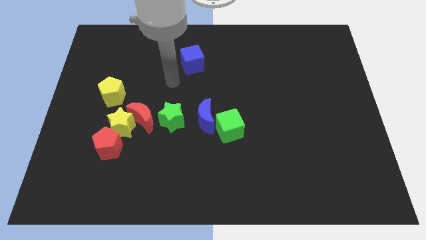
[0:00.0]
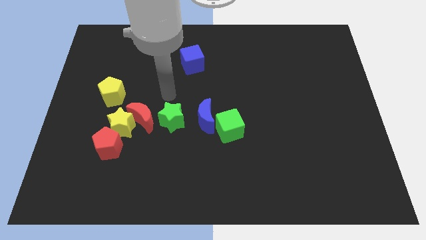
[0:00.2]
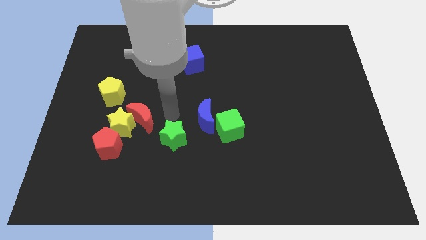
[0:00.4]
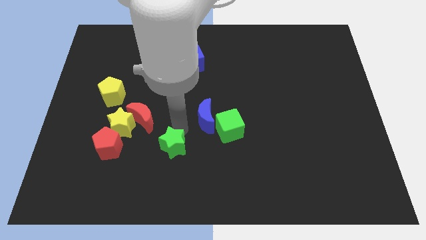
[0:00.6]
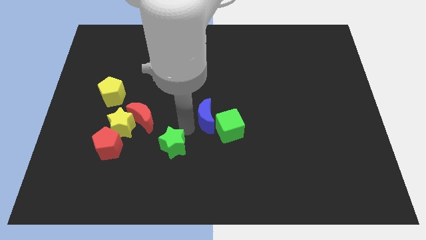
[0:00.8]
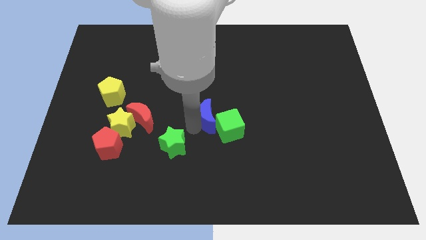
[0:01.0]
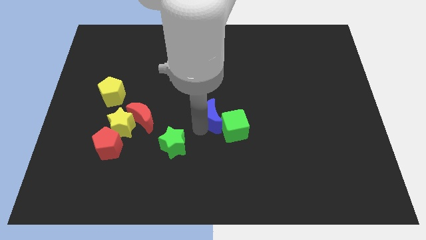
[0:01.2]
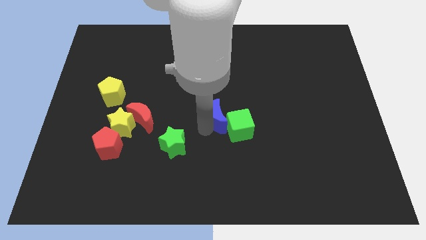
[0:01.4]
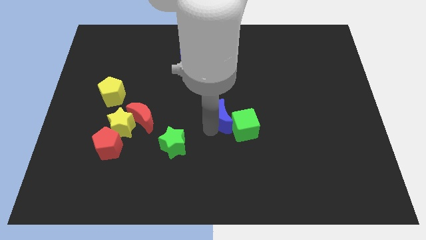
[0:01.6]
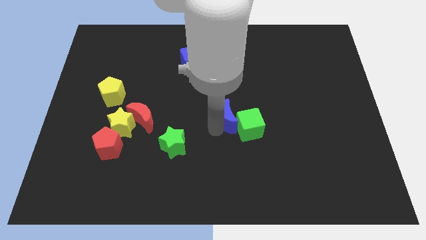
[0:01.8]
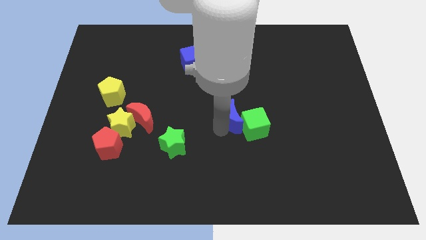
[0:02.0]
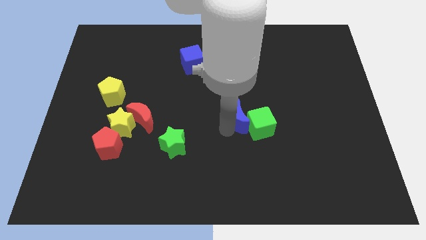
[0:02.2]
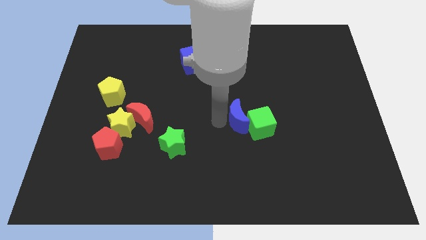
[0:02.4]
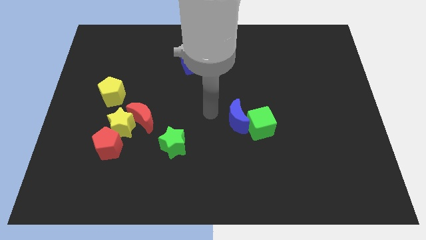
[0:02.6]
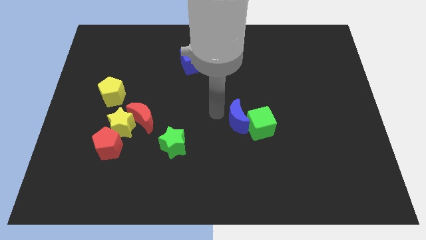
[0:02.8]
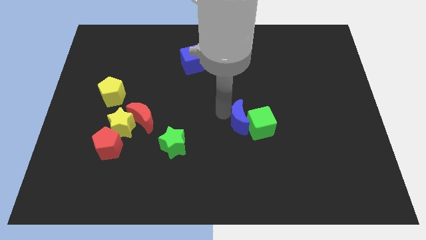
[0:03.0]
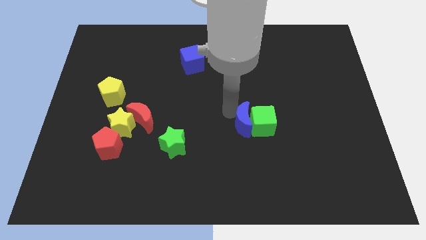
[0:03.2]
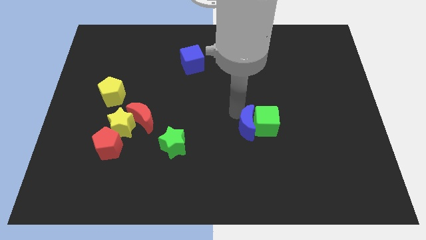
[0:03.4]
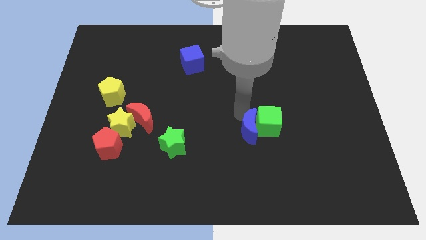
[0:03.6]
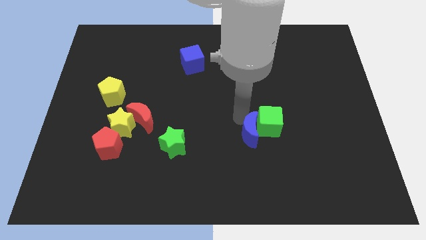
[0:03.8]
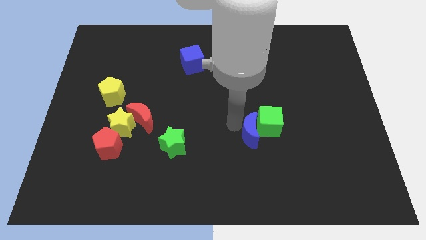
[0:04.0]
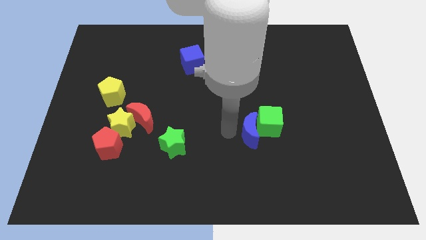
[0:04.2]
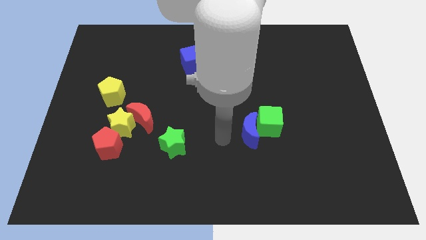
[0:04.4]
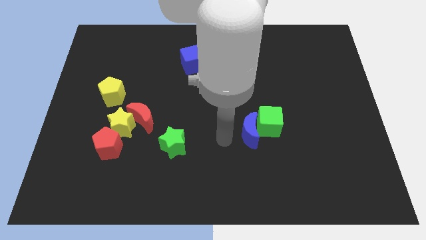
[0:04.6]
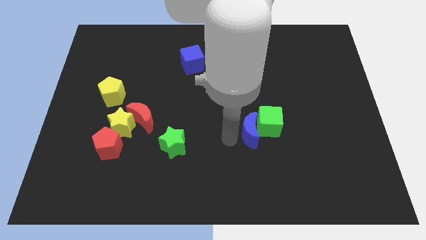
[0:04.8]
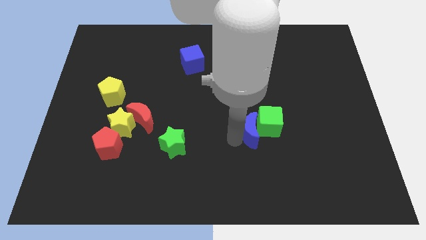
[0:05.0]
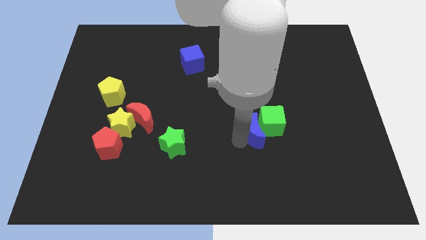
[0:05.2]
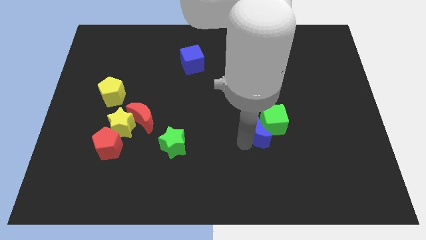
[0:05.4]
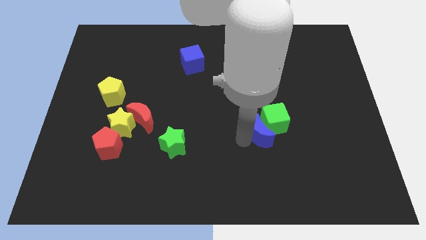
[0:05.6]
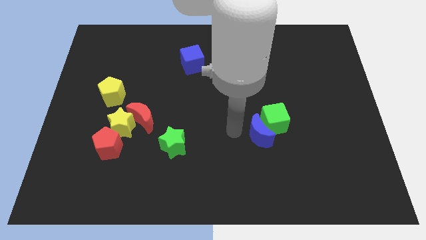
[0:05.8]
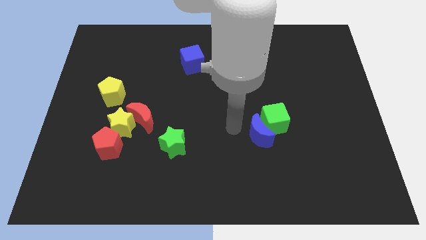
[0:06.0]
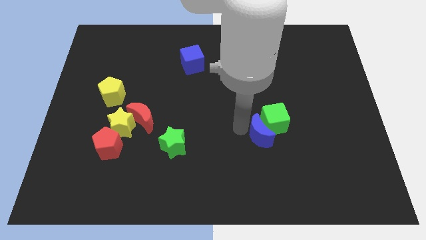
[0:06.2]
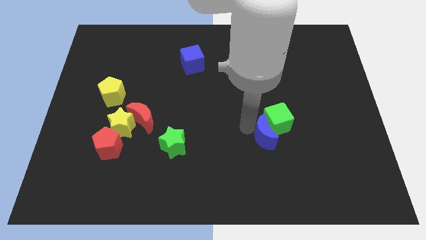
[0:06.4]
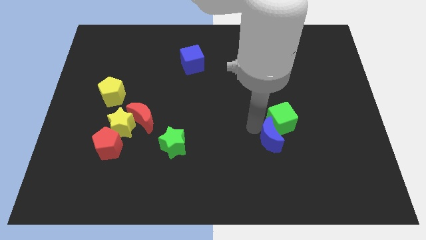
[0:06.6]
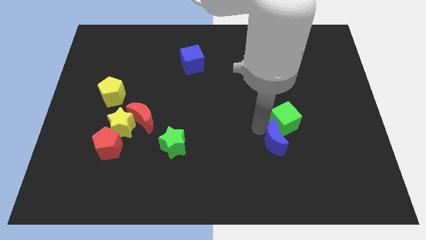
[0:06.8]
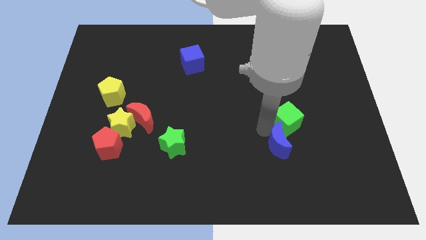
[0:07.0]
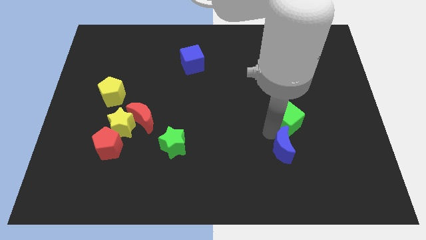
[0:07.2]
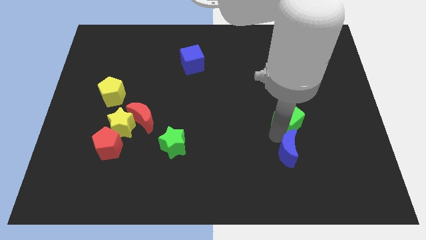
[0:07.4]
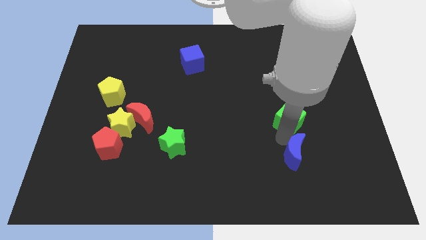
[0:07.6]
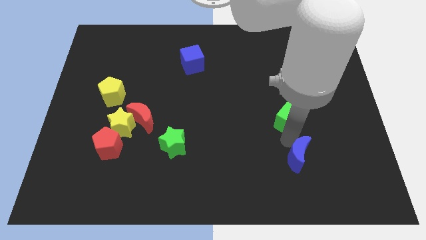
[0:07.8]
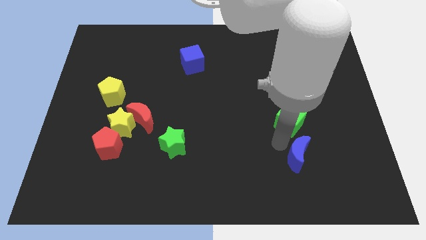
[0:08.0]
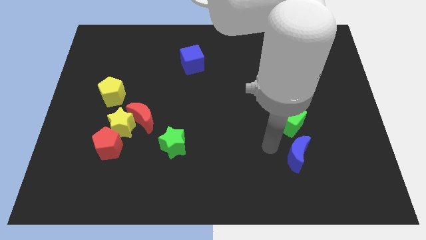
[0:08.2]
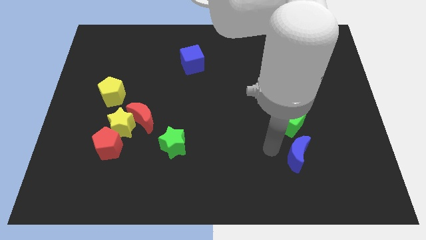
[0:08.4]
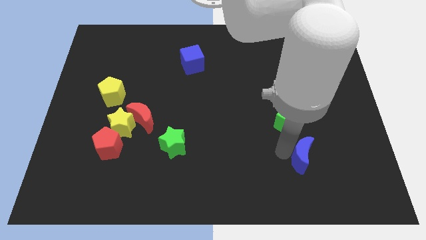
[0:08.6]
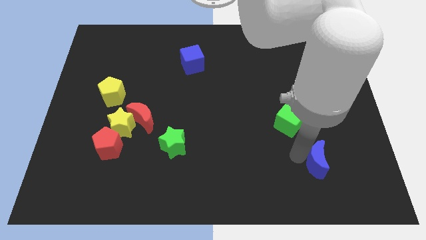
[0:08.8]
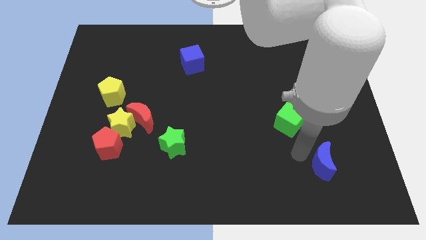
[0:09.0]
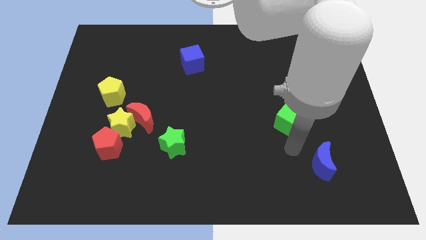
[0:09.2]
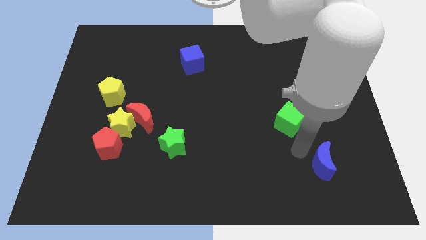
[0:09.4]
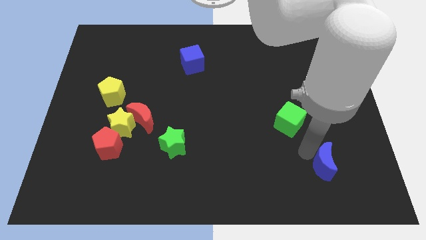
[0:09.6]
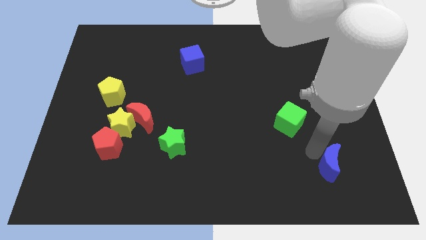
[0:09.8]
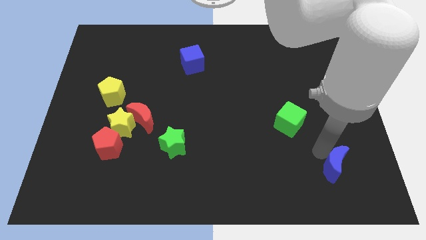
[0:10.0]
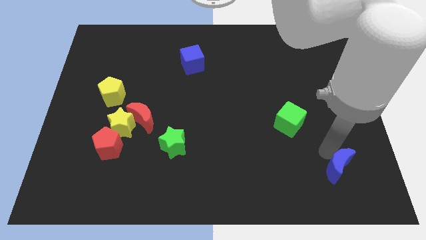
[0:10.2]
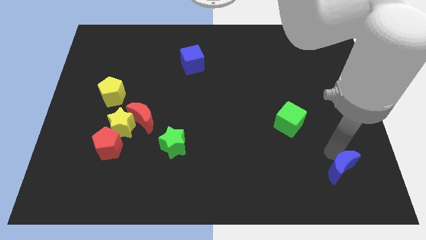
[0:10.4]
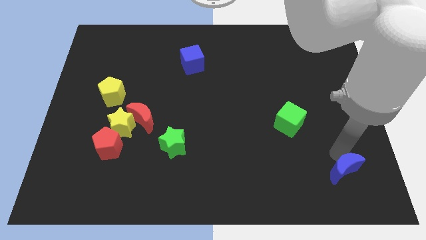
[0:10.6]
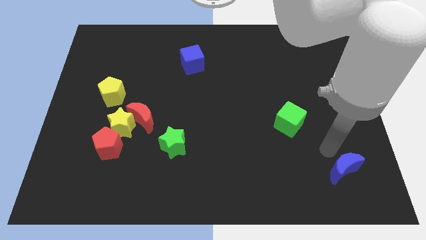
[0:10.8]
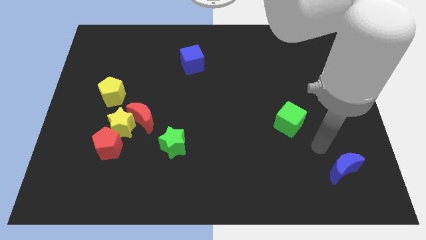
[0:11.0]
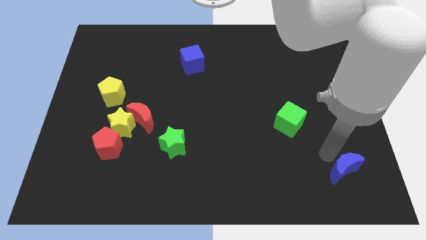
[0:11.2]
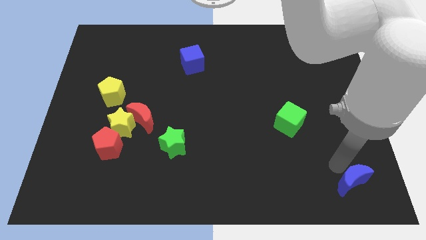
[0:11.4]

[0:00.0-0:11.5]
push the blue moon to the bottom right corner

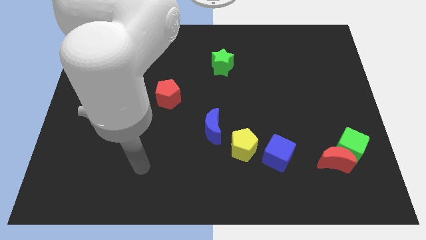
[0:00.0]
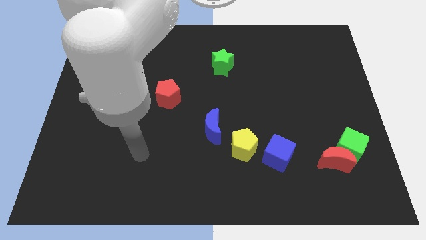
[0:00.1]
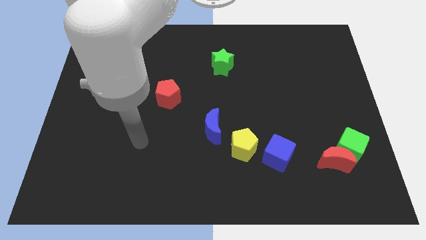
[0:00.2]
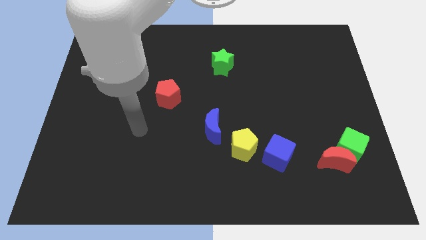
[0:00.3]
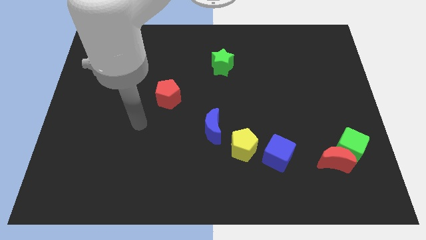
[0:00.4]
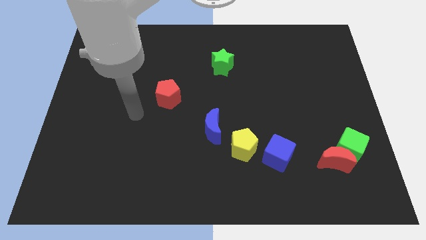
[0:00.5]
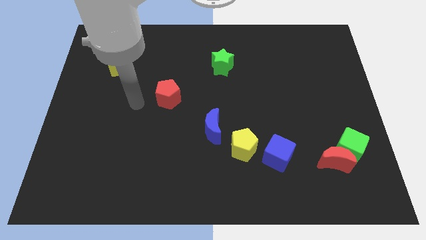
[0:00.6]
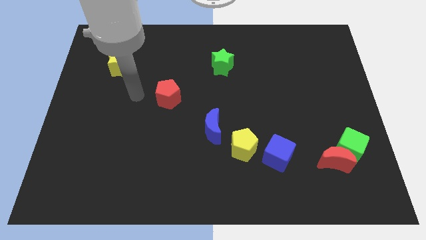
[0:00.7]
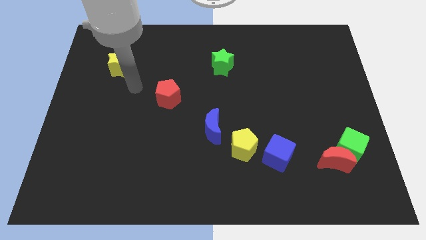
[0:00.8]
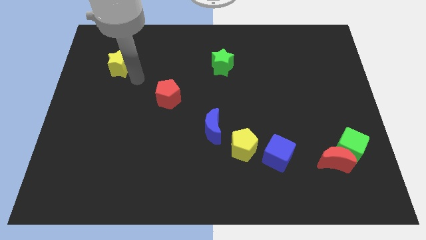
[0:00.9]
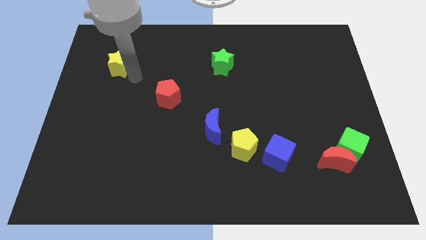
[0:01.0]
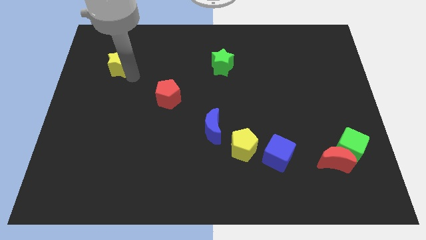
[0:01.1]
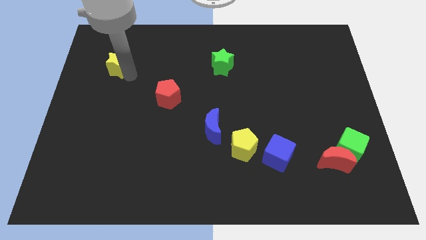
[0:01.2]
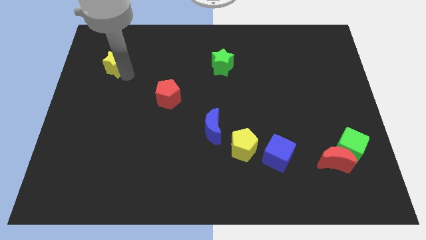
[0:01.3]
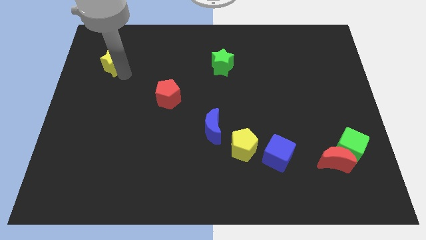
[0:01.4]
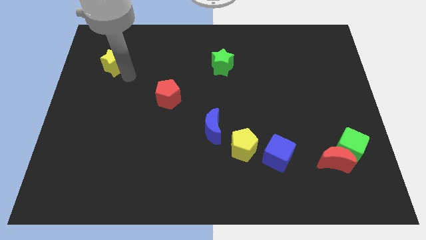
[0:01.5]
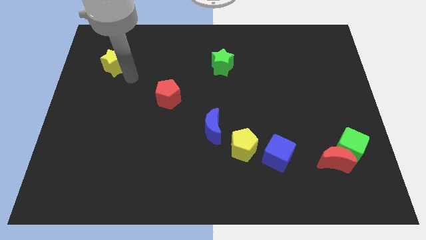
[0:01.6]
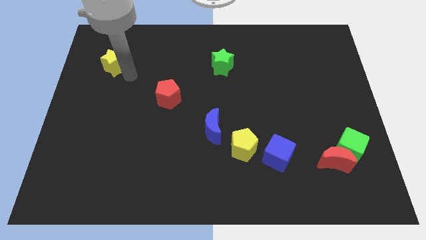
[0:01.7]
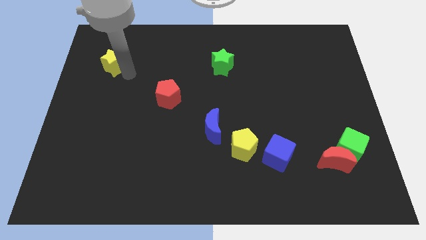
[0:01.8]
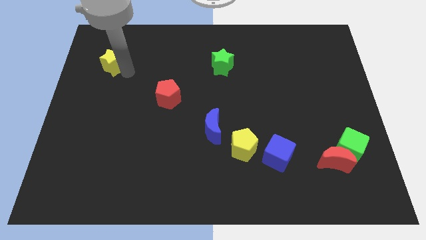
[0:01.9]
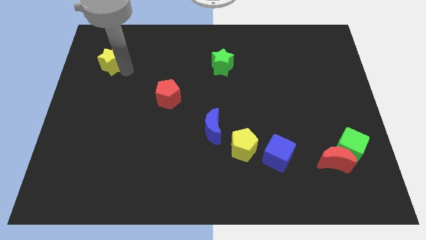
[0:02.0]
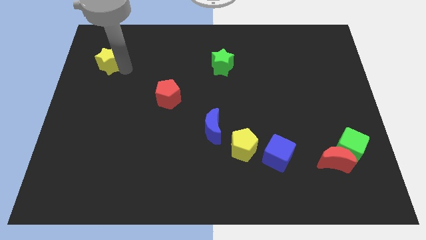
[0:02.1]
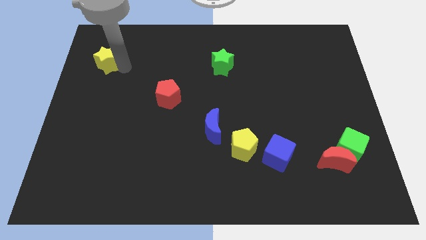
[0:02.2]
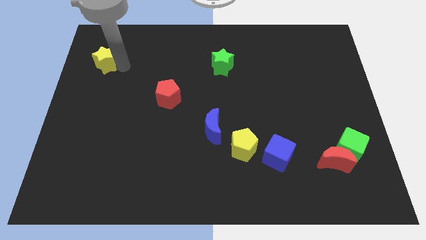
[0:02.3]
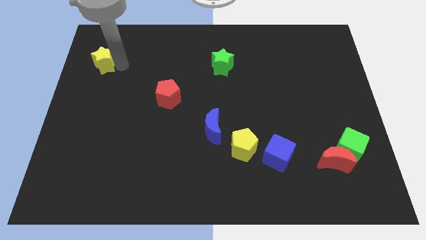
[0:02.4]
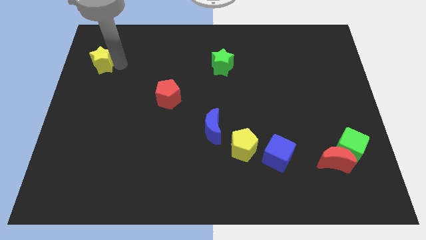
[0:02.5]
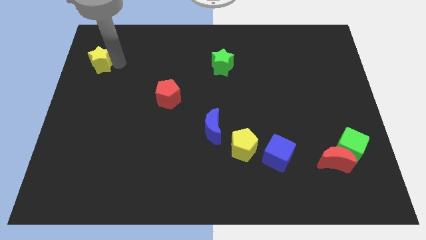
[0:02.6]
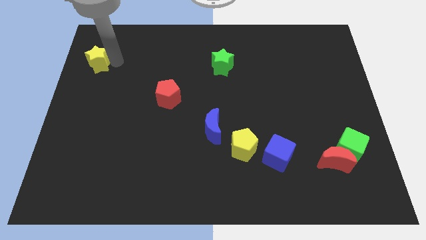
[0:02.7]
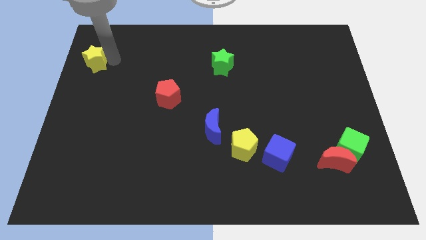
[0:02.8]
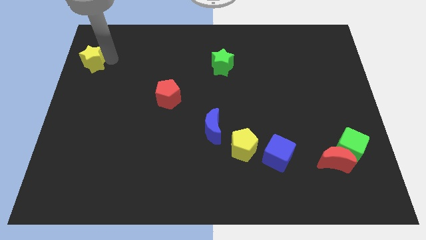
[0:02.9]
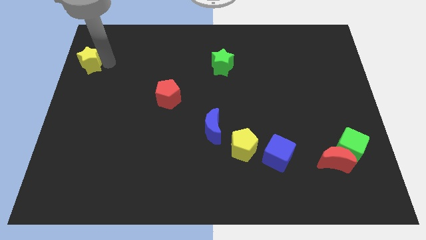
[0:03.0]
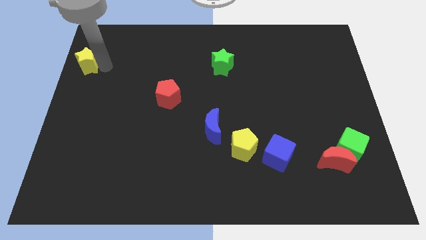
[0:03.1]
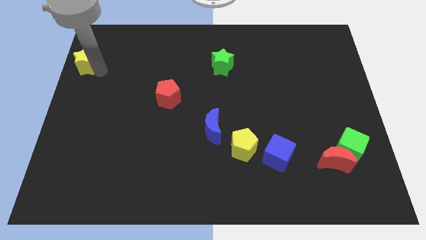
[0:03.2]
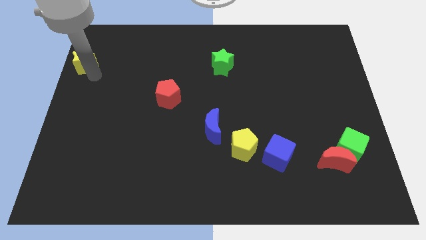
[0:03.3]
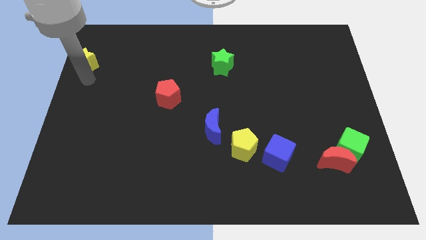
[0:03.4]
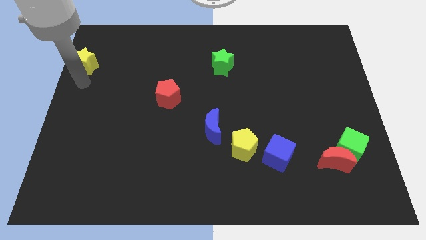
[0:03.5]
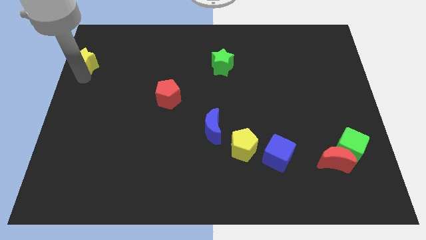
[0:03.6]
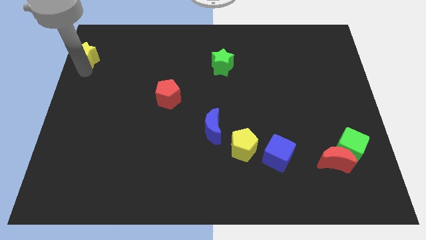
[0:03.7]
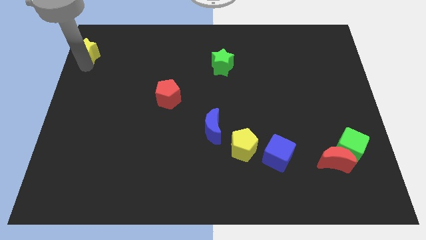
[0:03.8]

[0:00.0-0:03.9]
push the yellow star to the top left corner
